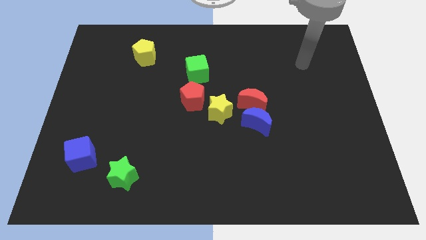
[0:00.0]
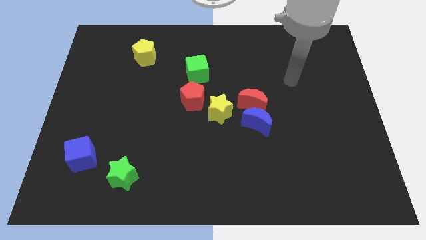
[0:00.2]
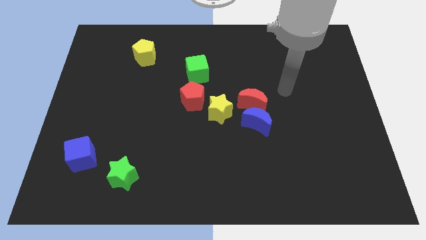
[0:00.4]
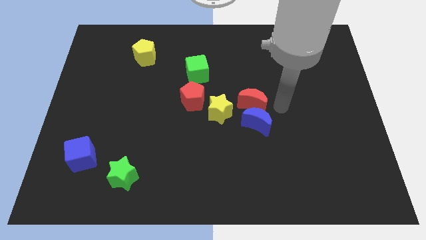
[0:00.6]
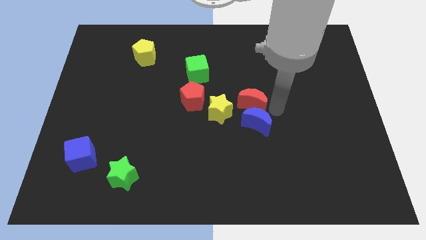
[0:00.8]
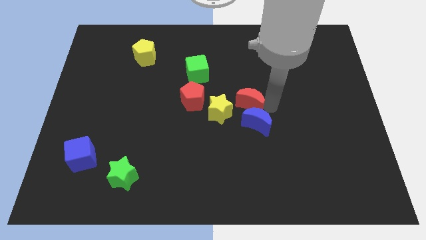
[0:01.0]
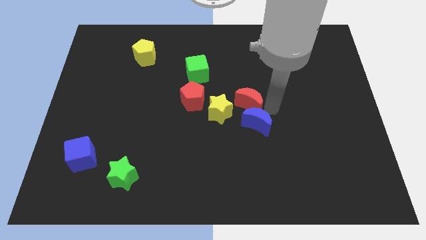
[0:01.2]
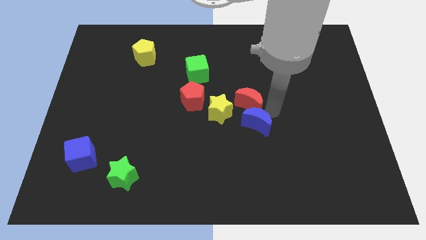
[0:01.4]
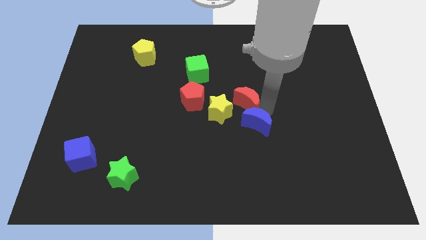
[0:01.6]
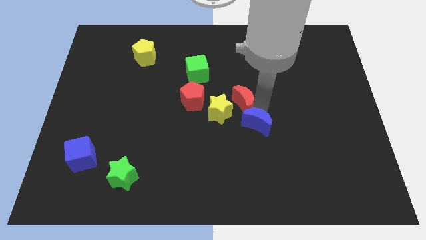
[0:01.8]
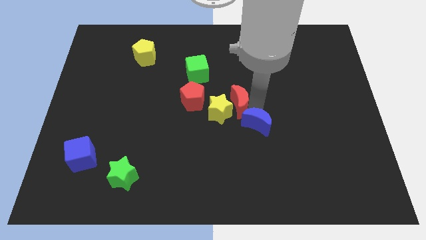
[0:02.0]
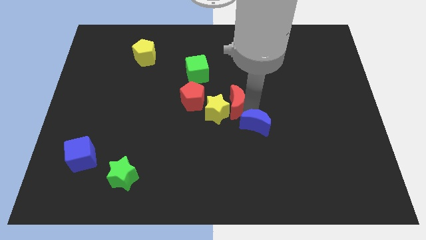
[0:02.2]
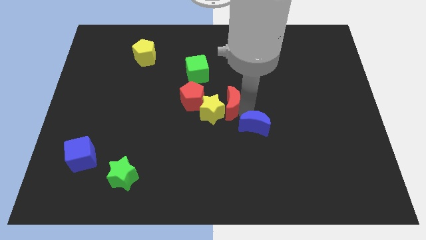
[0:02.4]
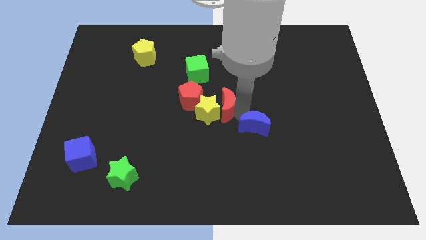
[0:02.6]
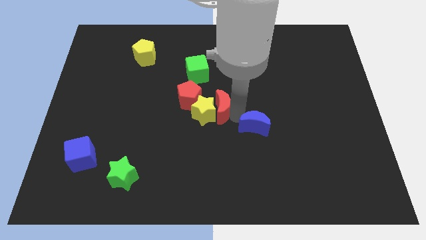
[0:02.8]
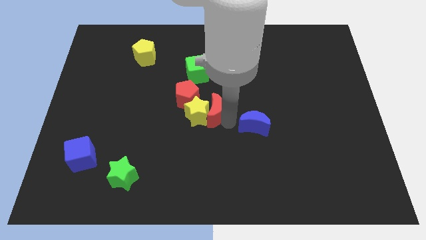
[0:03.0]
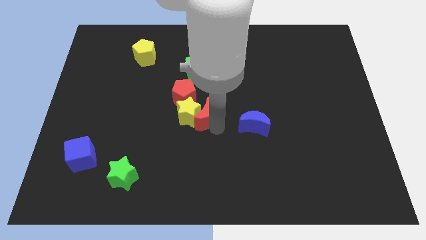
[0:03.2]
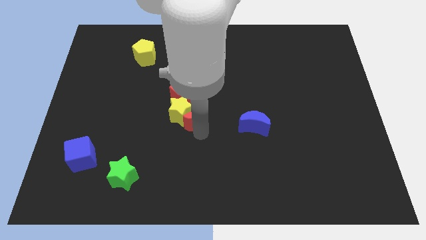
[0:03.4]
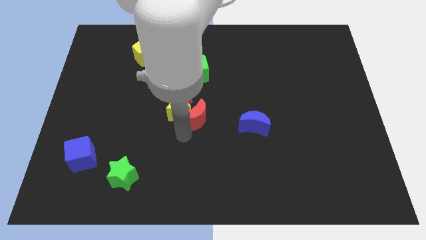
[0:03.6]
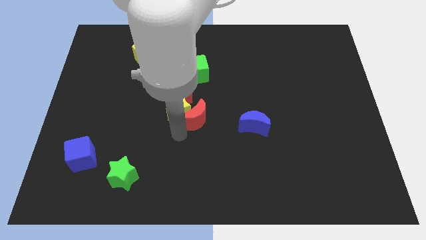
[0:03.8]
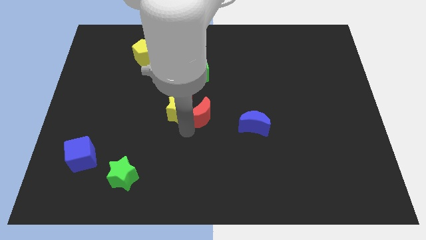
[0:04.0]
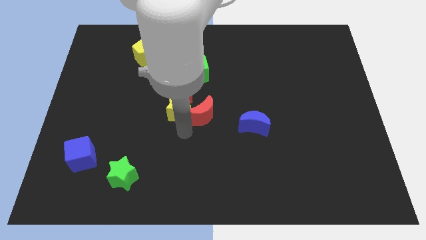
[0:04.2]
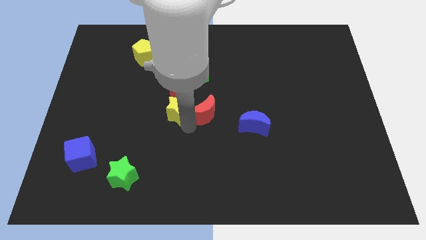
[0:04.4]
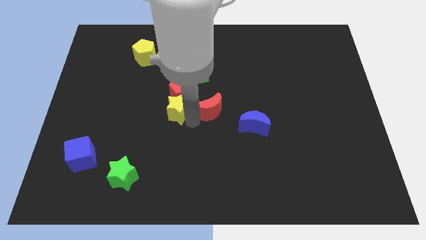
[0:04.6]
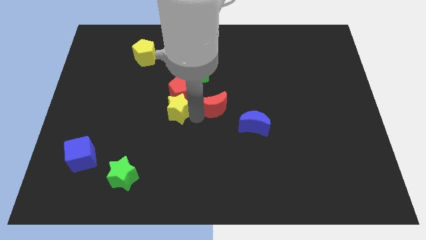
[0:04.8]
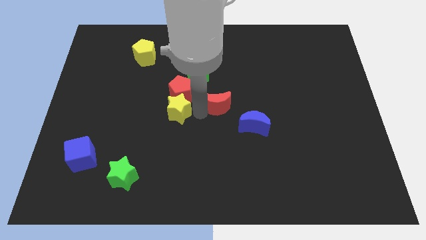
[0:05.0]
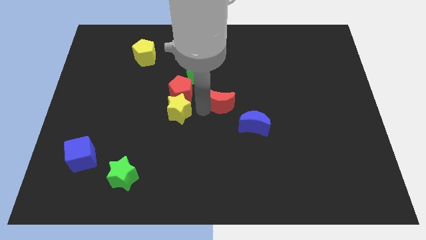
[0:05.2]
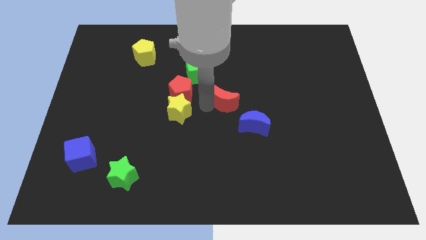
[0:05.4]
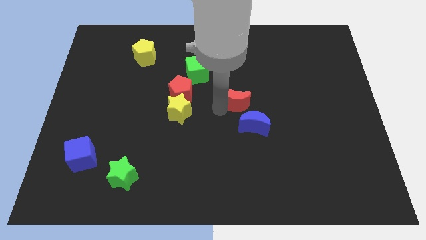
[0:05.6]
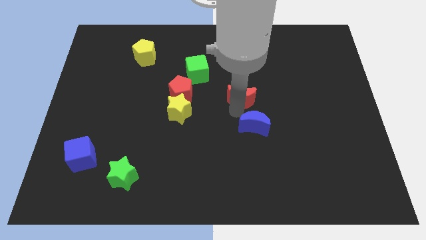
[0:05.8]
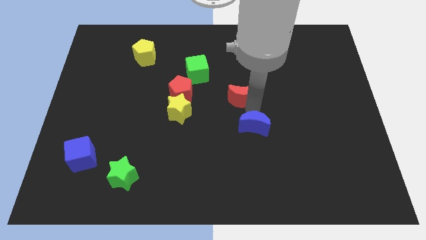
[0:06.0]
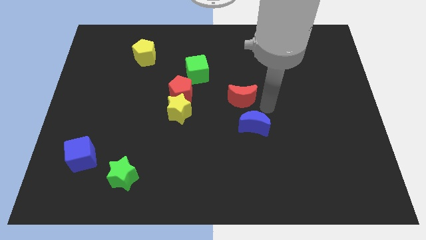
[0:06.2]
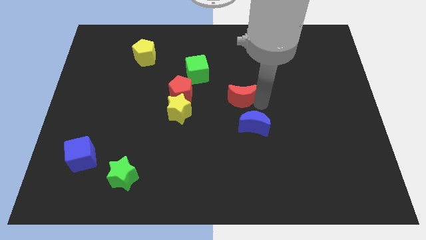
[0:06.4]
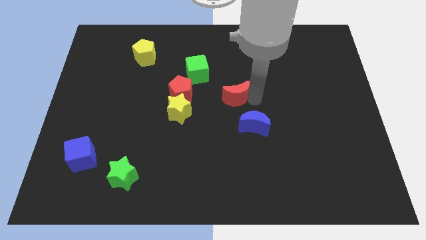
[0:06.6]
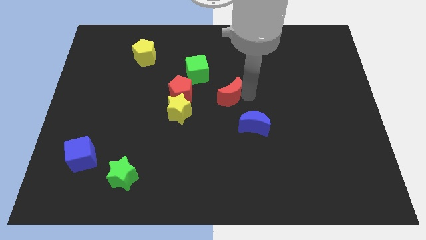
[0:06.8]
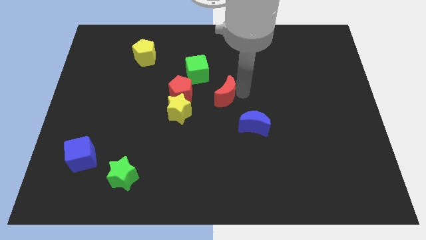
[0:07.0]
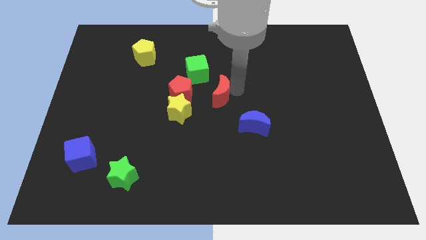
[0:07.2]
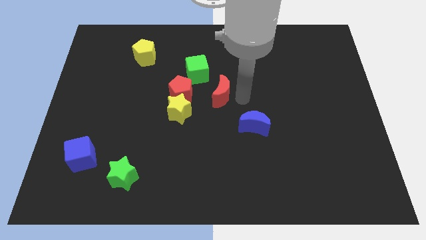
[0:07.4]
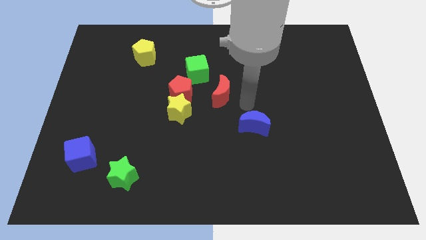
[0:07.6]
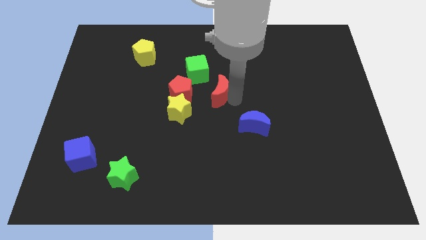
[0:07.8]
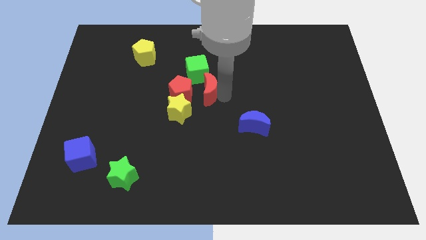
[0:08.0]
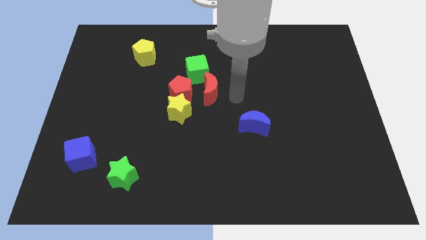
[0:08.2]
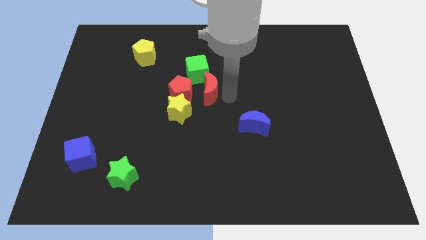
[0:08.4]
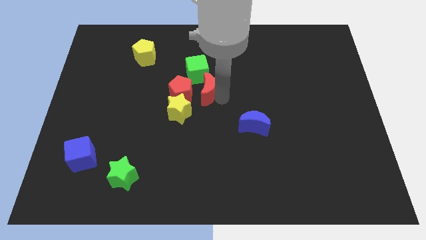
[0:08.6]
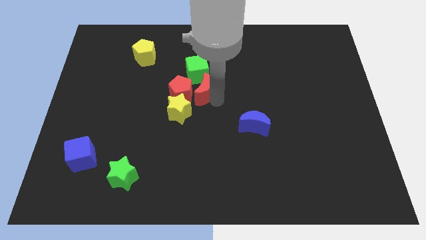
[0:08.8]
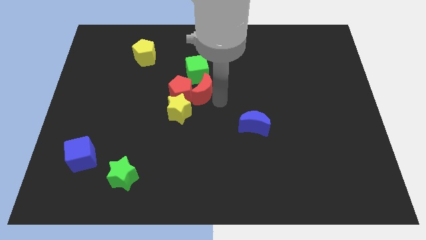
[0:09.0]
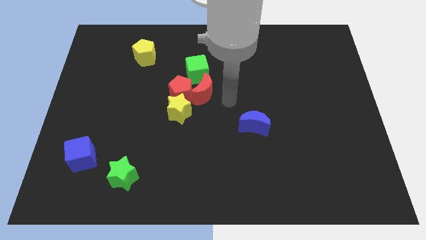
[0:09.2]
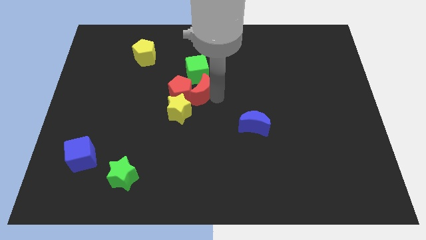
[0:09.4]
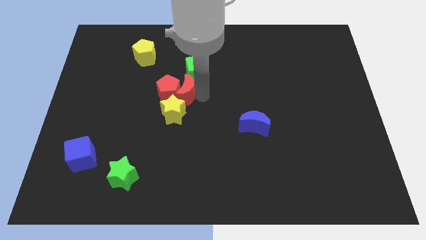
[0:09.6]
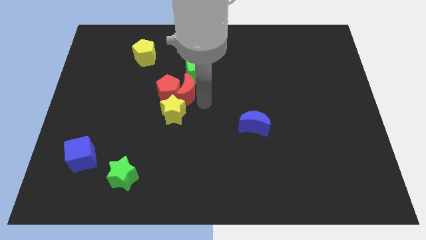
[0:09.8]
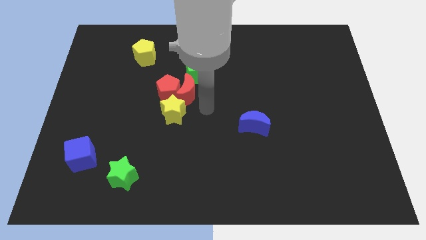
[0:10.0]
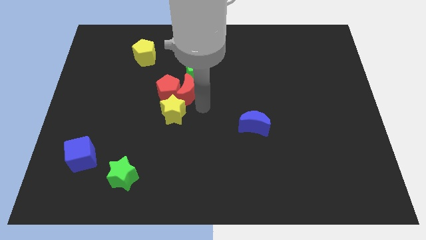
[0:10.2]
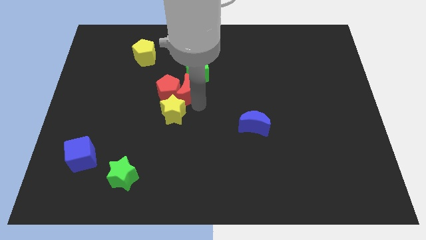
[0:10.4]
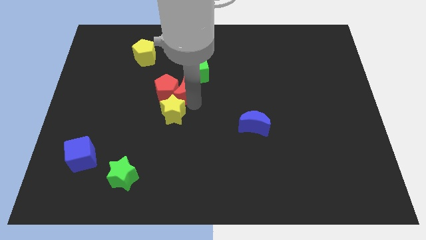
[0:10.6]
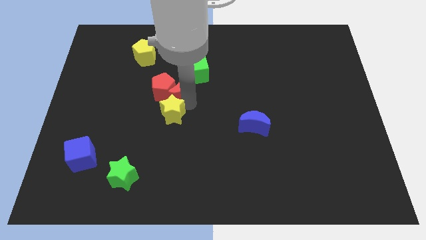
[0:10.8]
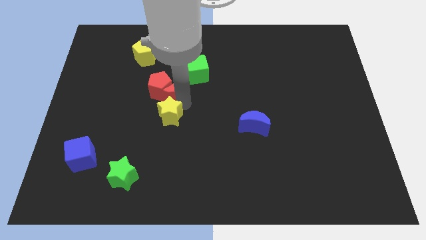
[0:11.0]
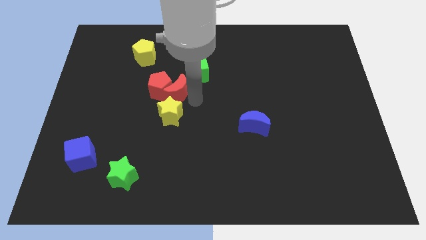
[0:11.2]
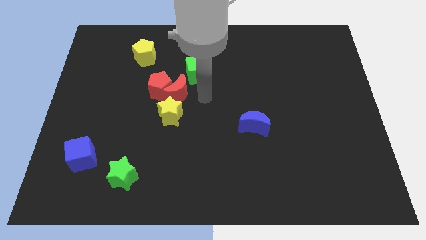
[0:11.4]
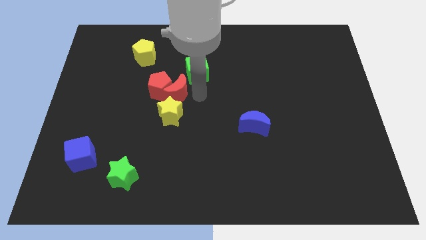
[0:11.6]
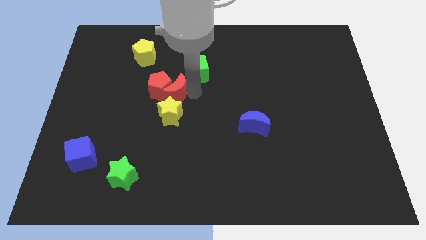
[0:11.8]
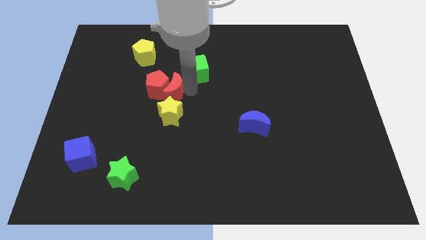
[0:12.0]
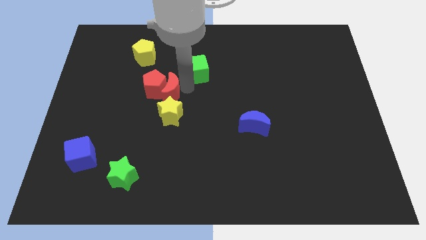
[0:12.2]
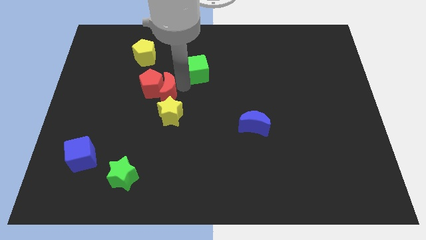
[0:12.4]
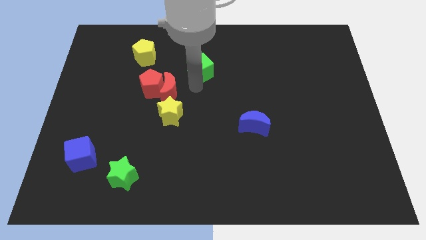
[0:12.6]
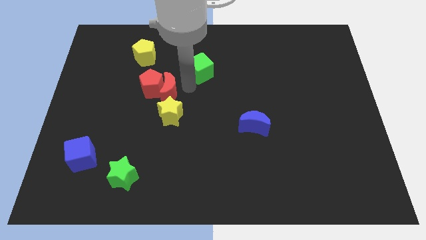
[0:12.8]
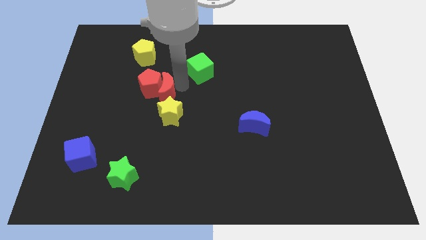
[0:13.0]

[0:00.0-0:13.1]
move the red moon to the left

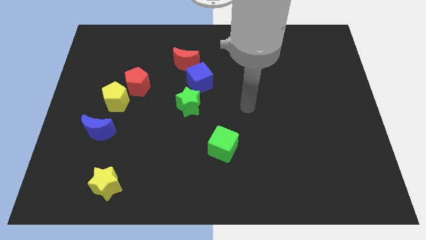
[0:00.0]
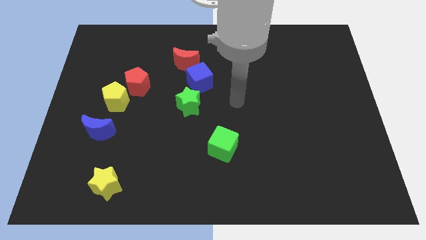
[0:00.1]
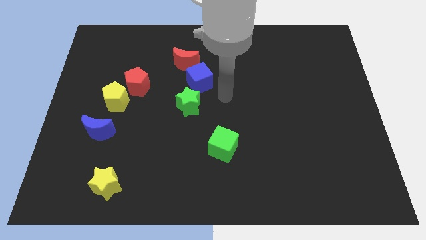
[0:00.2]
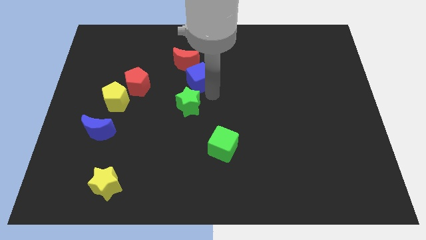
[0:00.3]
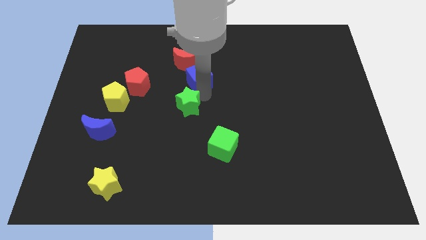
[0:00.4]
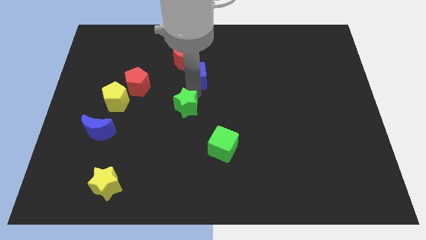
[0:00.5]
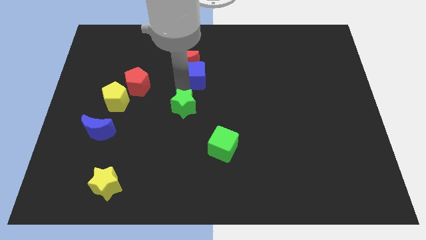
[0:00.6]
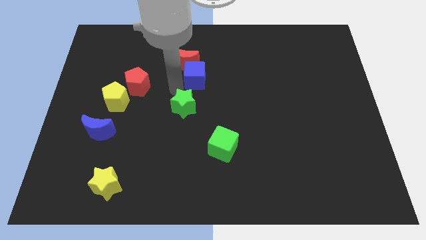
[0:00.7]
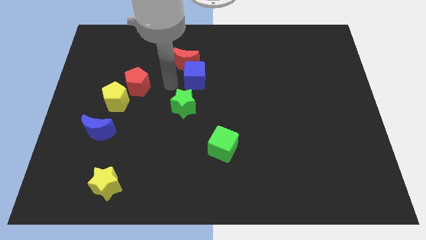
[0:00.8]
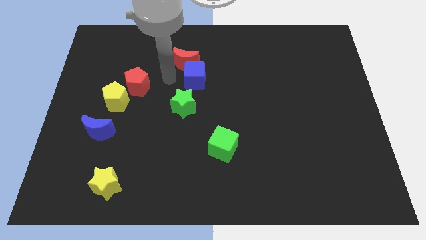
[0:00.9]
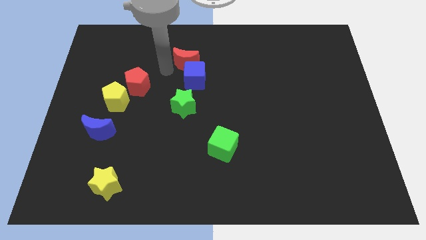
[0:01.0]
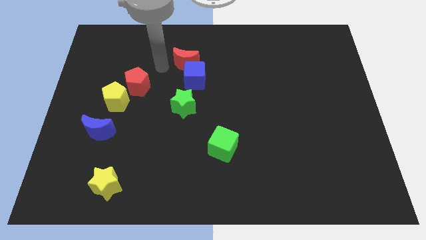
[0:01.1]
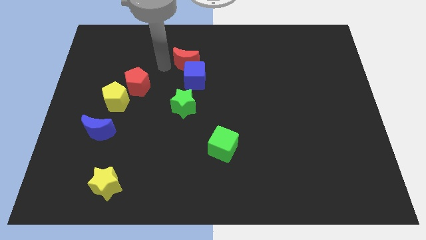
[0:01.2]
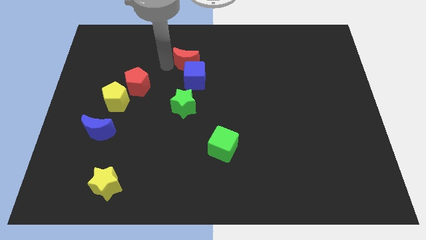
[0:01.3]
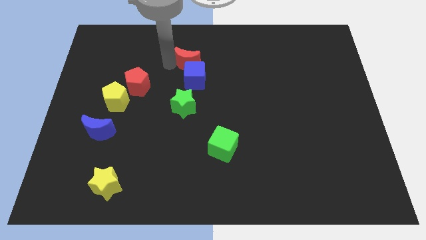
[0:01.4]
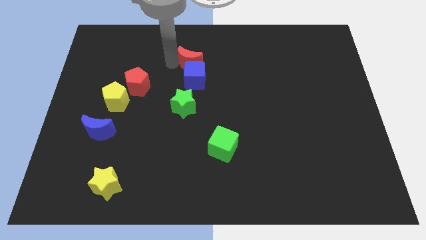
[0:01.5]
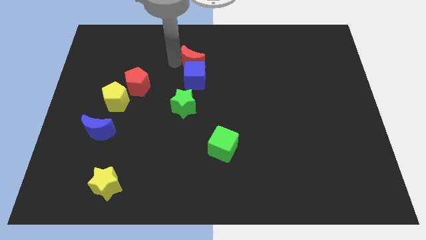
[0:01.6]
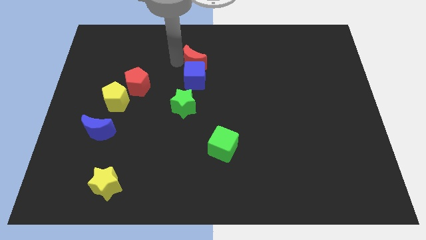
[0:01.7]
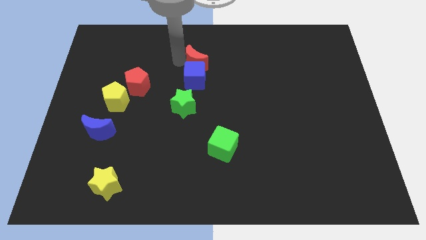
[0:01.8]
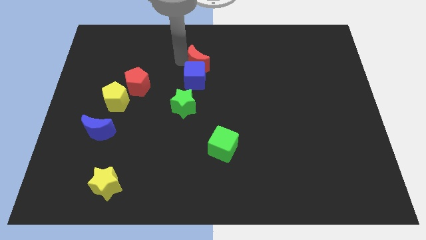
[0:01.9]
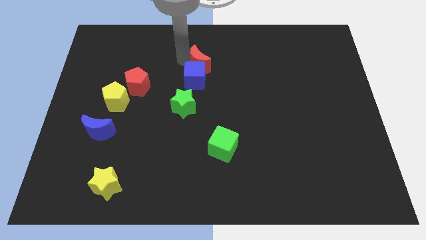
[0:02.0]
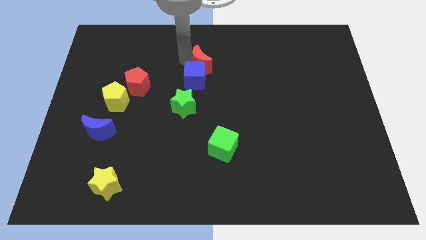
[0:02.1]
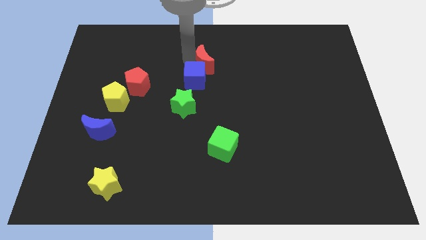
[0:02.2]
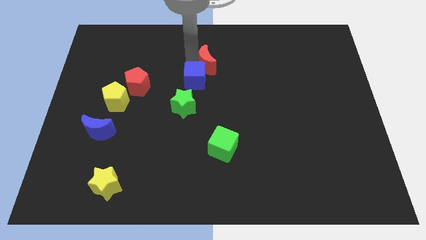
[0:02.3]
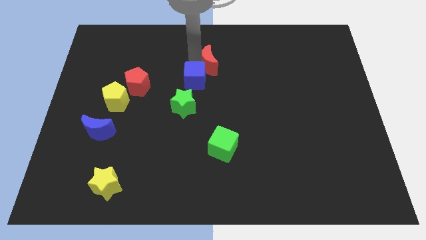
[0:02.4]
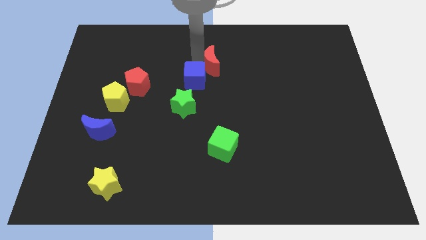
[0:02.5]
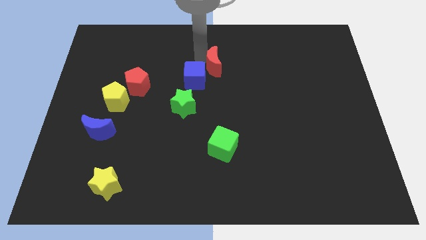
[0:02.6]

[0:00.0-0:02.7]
slide the red moon somewhat right
